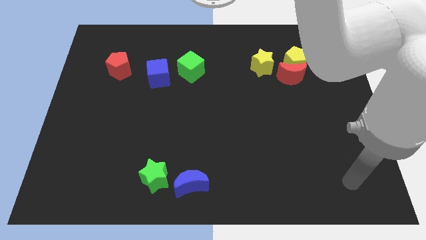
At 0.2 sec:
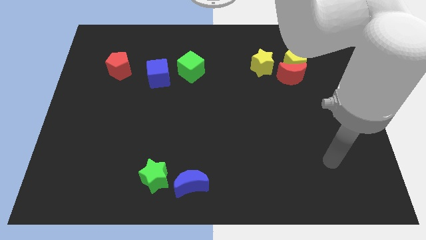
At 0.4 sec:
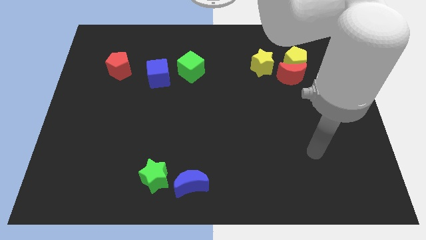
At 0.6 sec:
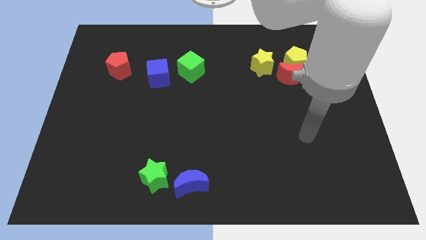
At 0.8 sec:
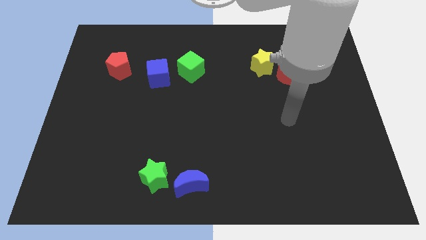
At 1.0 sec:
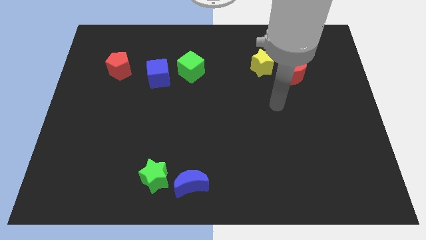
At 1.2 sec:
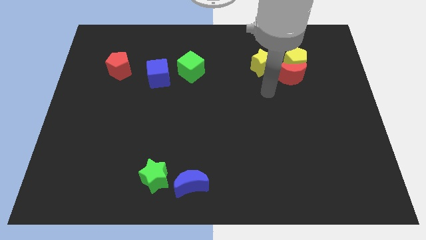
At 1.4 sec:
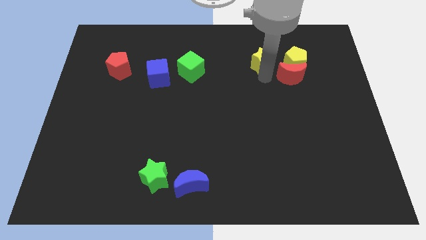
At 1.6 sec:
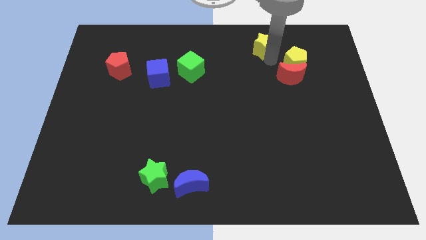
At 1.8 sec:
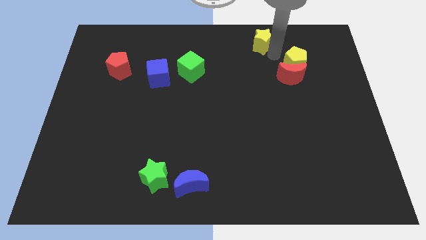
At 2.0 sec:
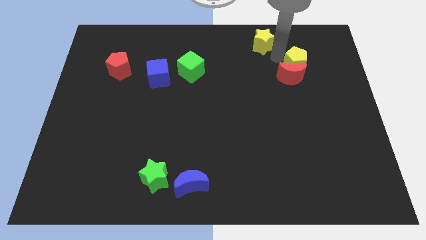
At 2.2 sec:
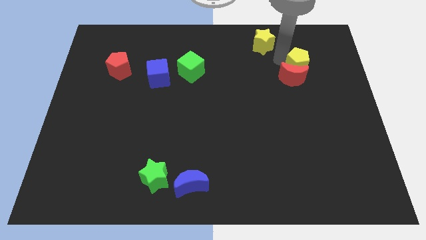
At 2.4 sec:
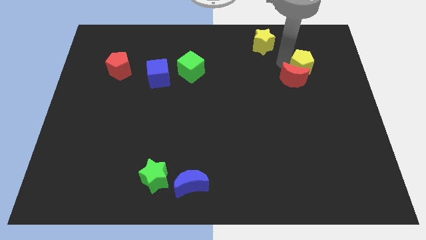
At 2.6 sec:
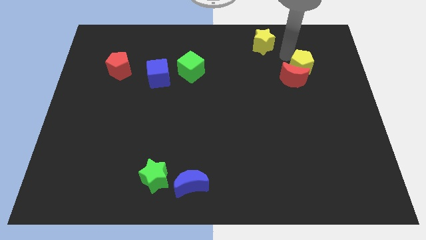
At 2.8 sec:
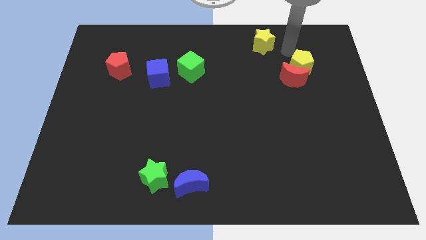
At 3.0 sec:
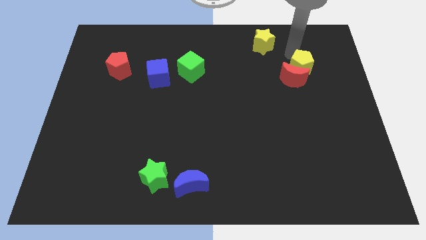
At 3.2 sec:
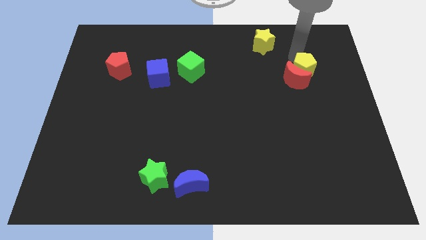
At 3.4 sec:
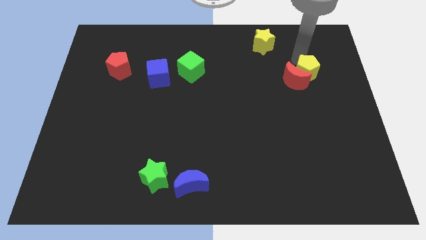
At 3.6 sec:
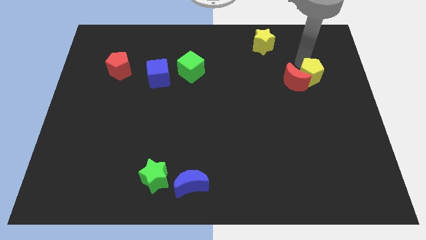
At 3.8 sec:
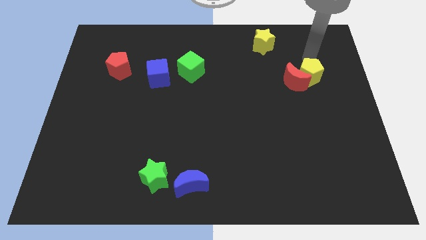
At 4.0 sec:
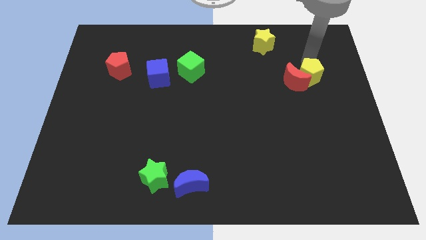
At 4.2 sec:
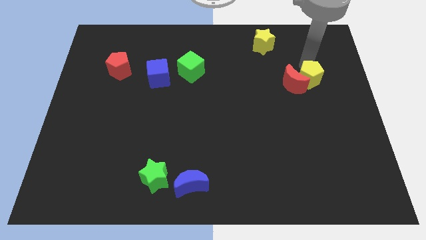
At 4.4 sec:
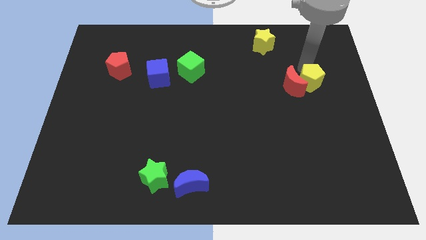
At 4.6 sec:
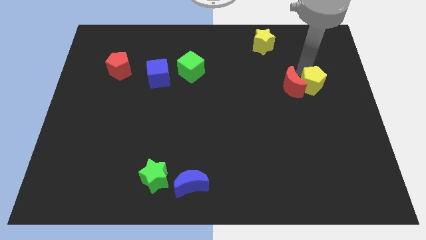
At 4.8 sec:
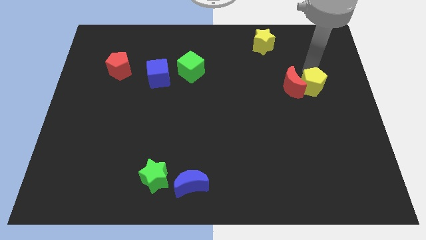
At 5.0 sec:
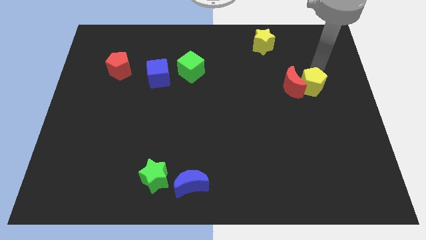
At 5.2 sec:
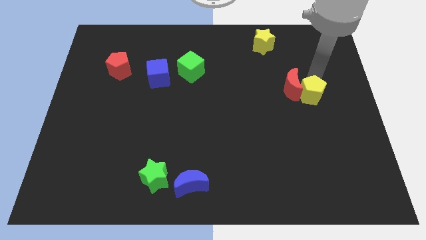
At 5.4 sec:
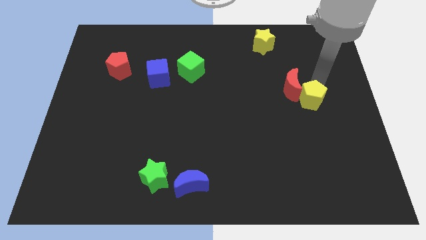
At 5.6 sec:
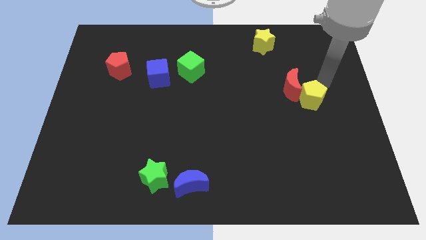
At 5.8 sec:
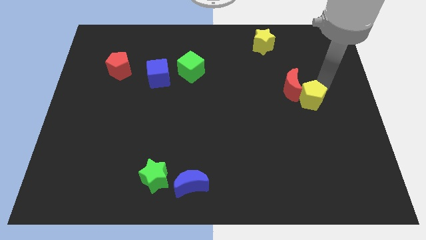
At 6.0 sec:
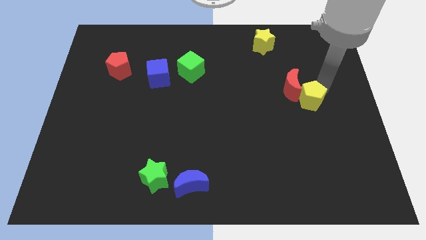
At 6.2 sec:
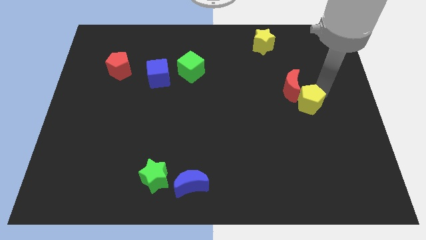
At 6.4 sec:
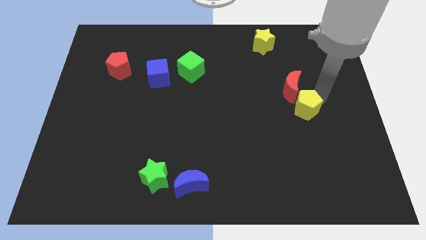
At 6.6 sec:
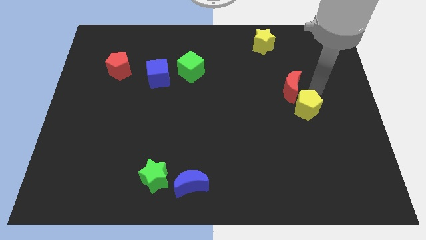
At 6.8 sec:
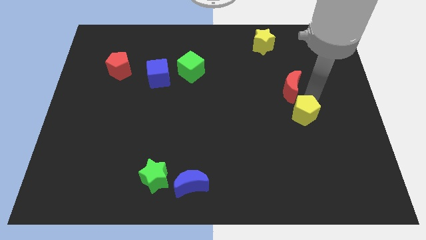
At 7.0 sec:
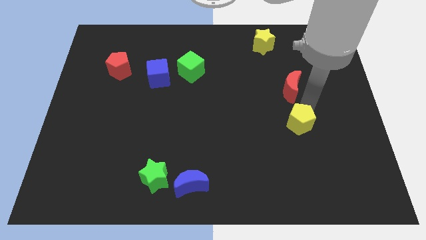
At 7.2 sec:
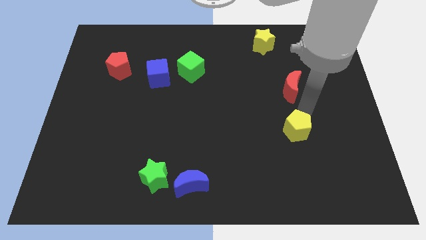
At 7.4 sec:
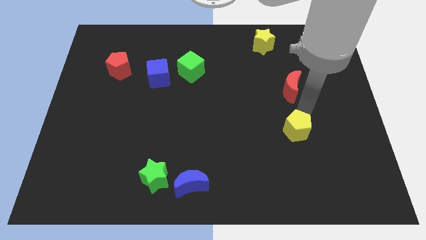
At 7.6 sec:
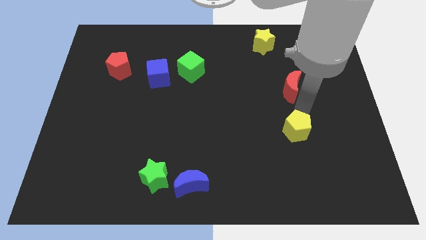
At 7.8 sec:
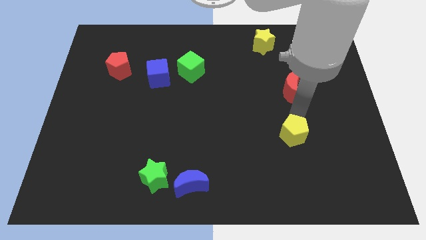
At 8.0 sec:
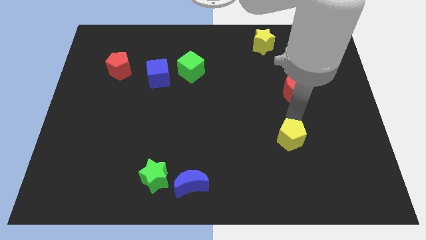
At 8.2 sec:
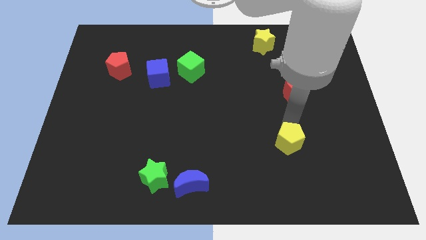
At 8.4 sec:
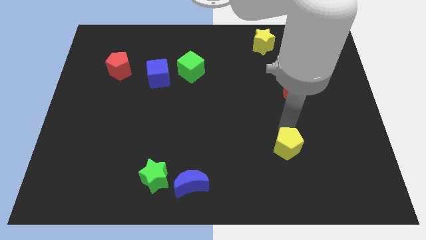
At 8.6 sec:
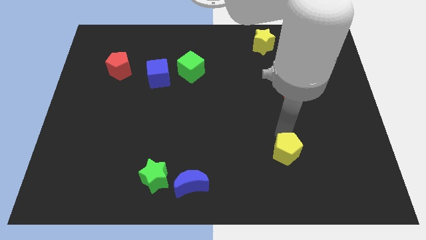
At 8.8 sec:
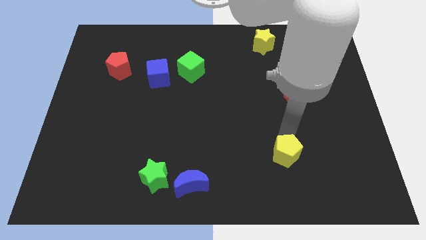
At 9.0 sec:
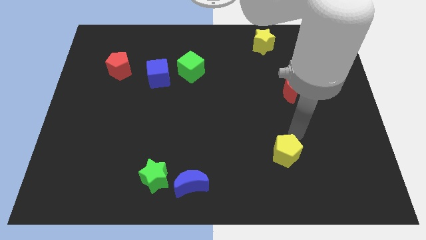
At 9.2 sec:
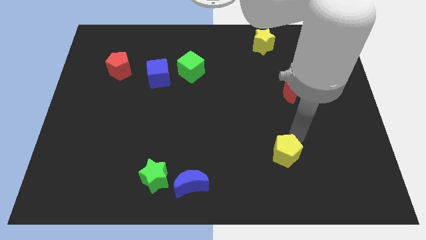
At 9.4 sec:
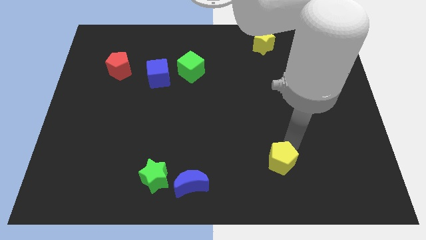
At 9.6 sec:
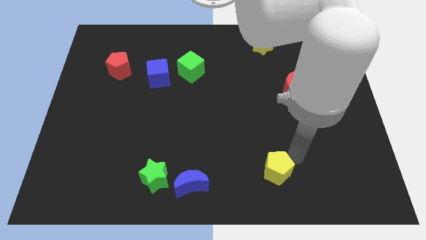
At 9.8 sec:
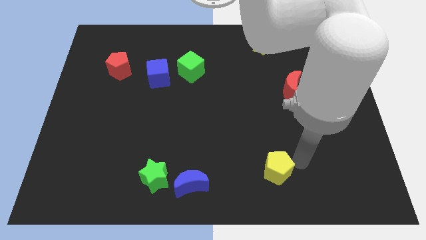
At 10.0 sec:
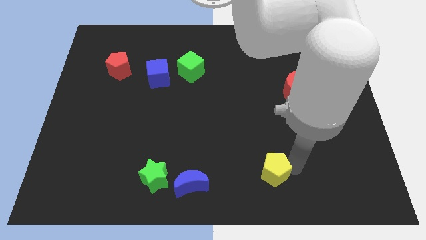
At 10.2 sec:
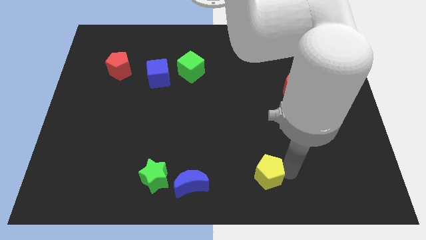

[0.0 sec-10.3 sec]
push the yellow pentagon right of the blue moon

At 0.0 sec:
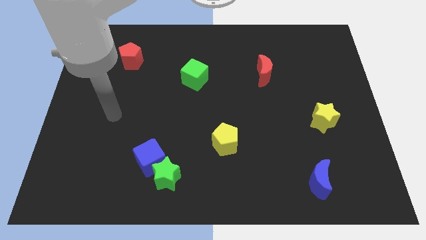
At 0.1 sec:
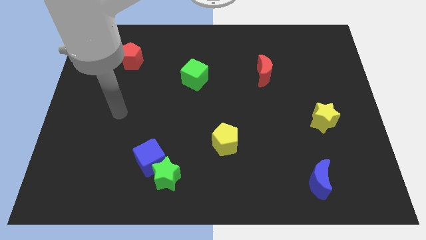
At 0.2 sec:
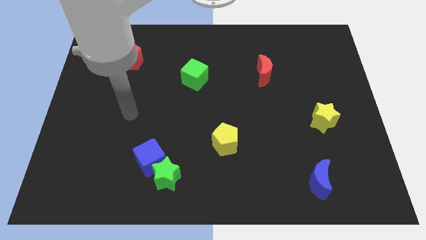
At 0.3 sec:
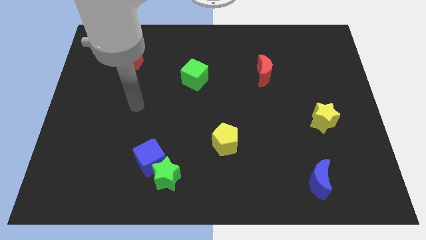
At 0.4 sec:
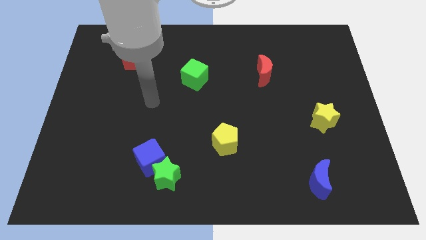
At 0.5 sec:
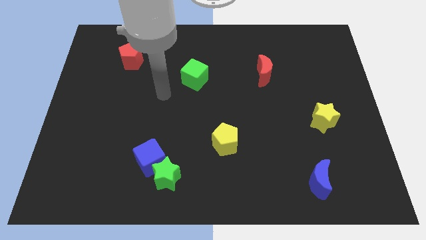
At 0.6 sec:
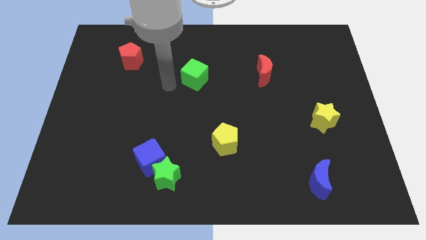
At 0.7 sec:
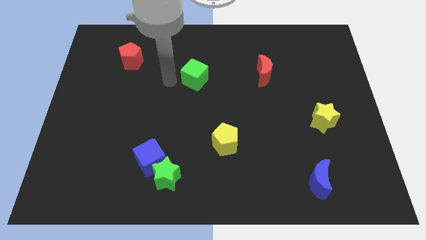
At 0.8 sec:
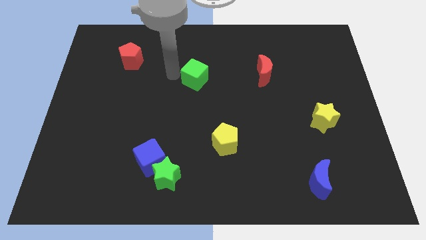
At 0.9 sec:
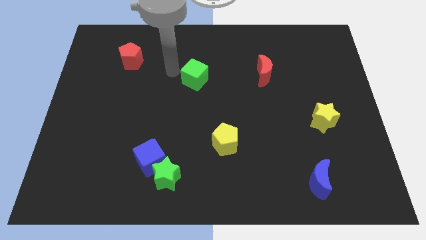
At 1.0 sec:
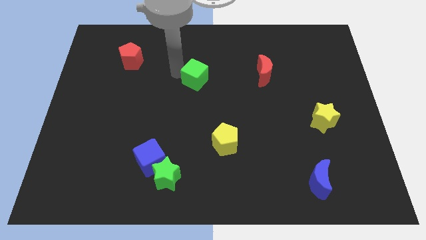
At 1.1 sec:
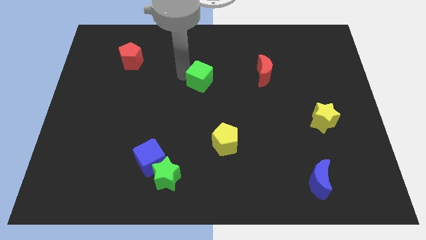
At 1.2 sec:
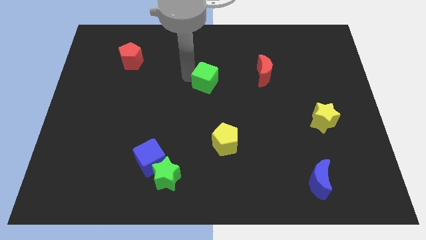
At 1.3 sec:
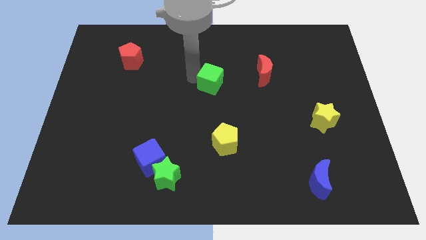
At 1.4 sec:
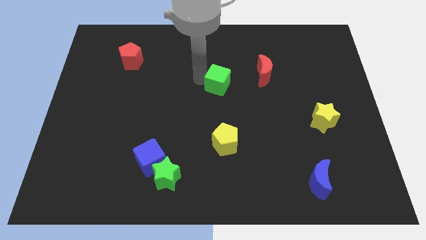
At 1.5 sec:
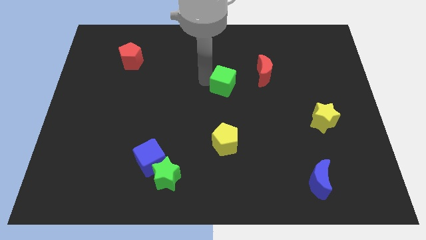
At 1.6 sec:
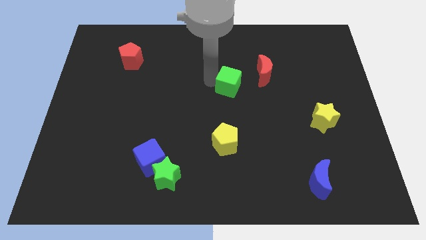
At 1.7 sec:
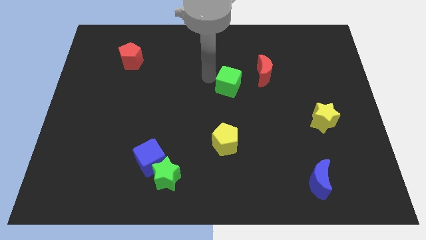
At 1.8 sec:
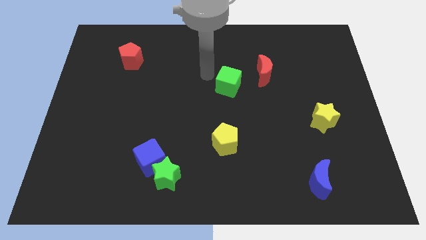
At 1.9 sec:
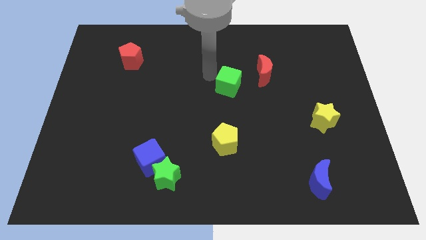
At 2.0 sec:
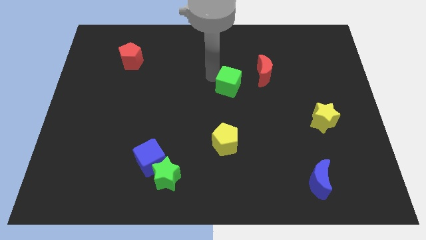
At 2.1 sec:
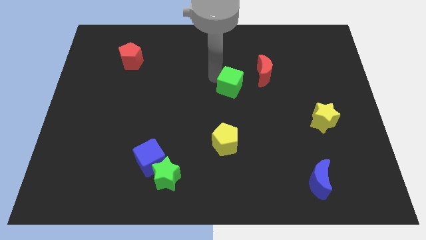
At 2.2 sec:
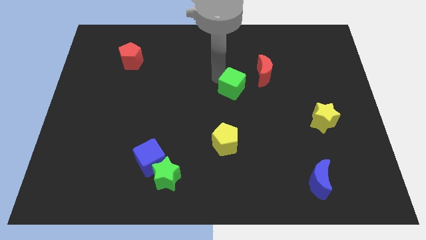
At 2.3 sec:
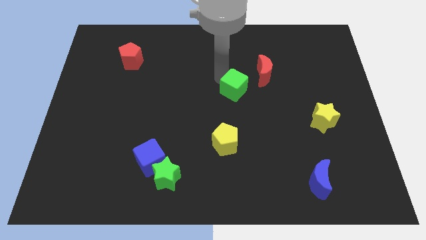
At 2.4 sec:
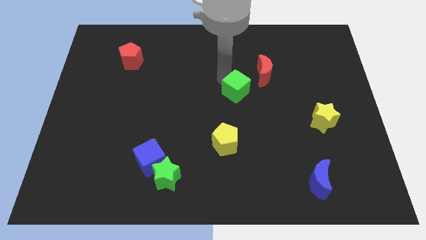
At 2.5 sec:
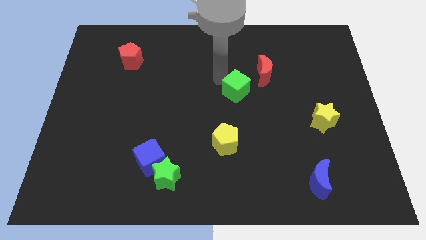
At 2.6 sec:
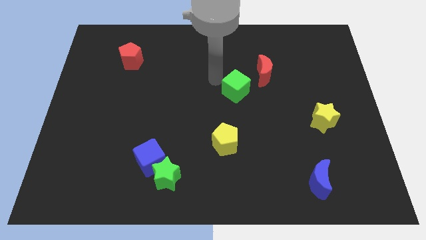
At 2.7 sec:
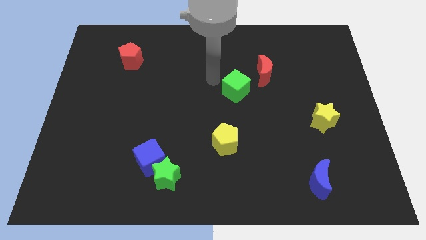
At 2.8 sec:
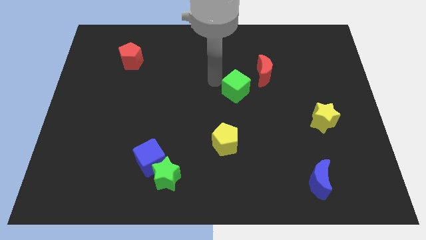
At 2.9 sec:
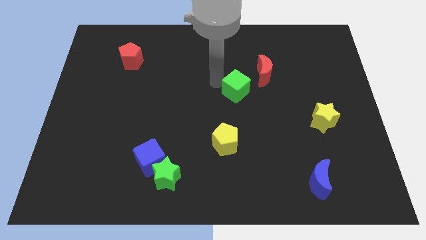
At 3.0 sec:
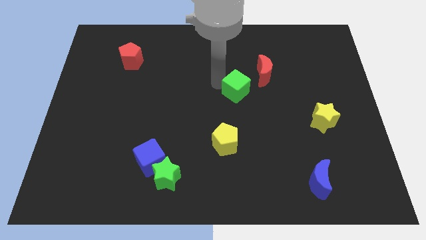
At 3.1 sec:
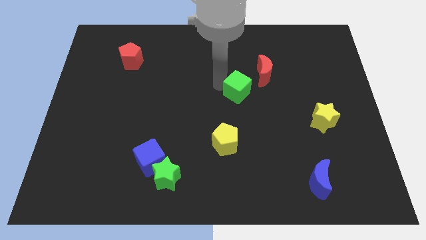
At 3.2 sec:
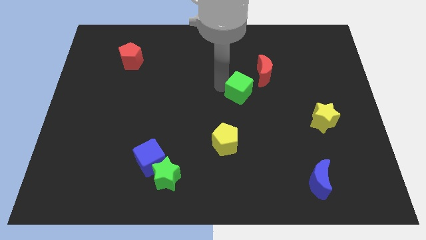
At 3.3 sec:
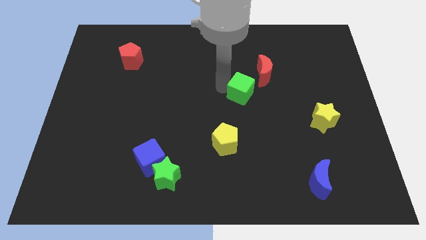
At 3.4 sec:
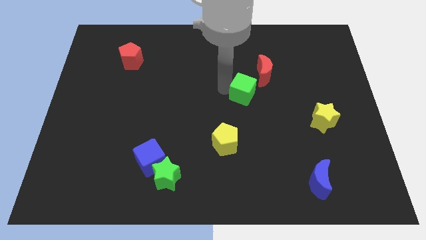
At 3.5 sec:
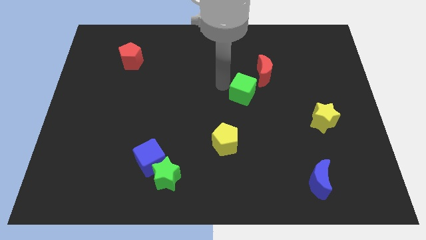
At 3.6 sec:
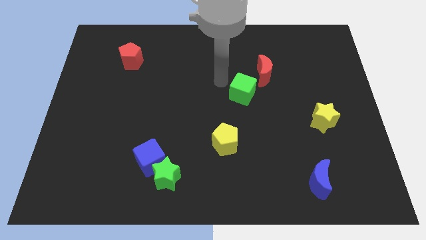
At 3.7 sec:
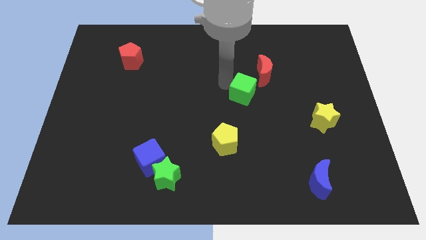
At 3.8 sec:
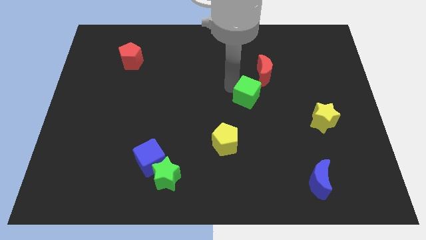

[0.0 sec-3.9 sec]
put the green cube to the bottom of the red moon
